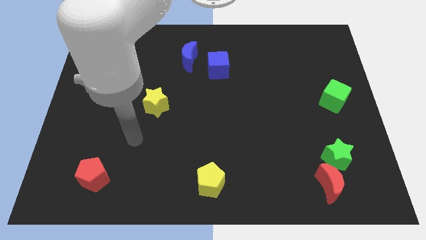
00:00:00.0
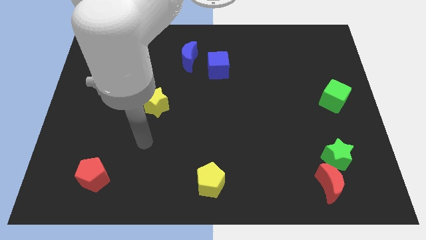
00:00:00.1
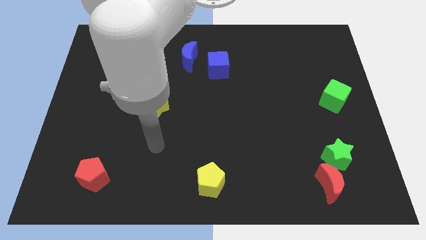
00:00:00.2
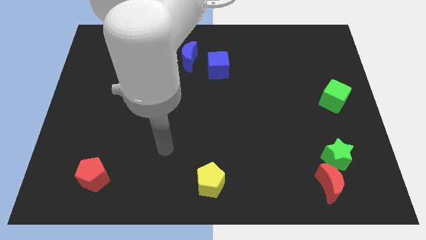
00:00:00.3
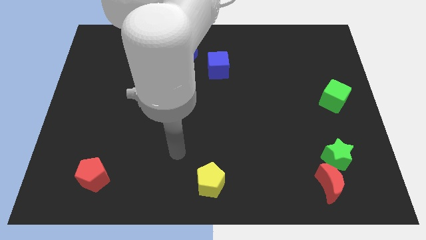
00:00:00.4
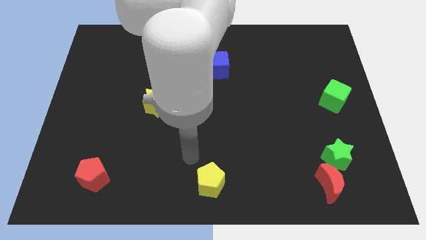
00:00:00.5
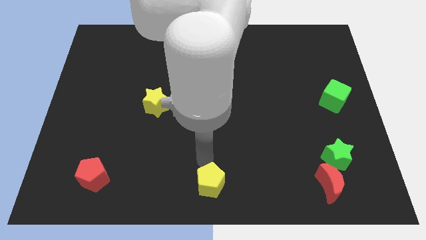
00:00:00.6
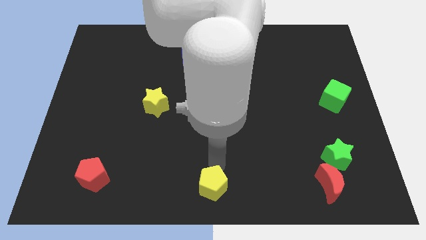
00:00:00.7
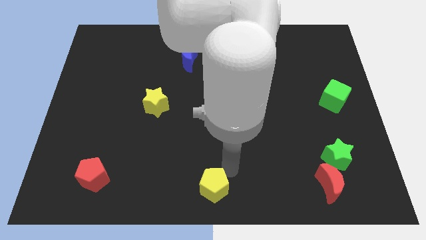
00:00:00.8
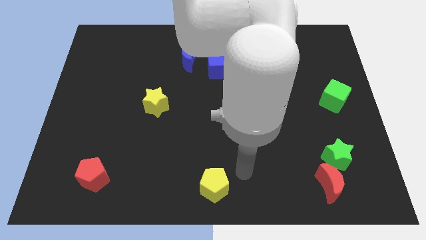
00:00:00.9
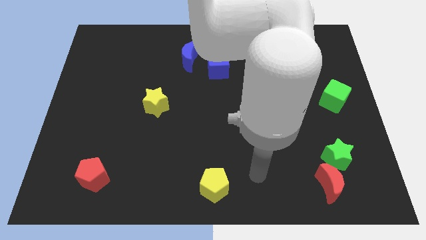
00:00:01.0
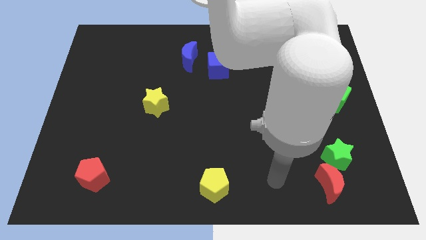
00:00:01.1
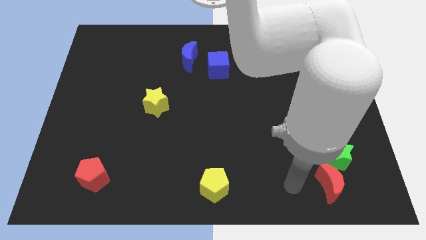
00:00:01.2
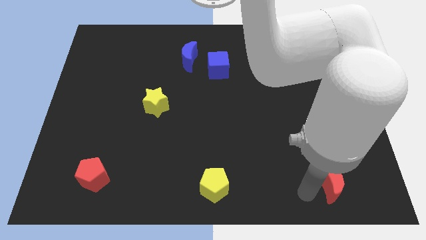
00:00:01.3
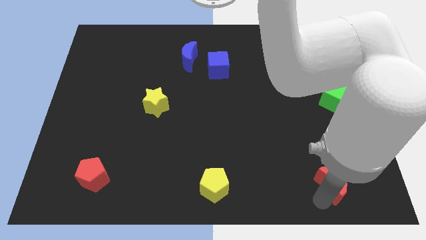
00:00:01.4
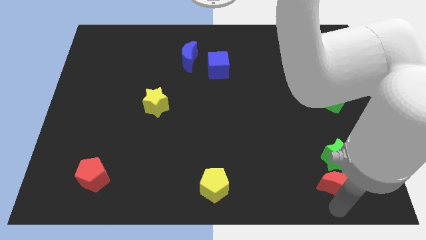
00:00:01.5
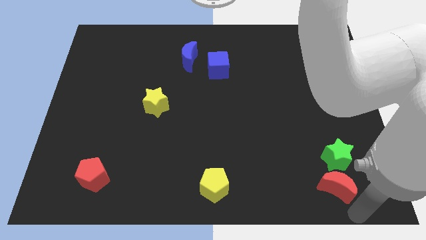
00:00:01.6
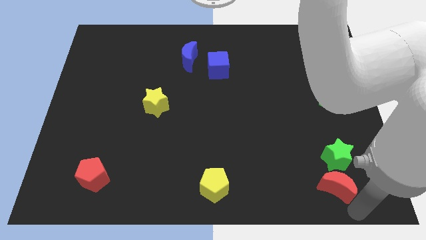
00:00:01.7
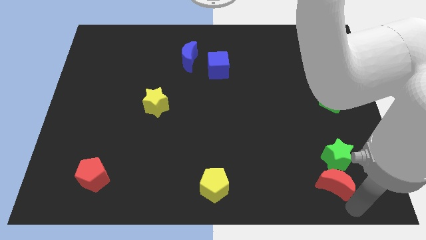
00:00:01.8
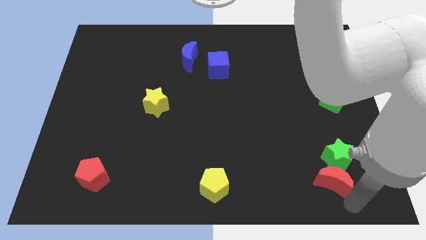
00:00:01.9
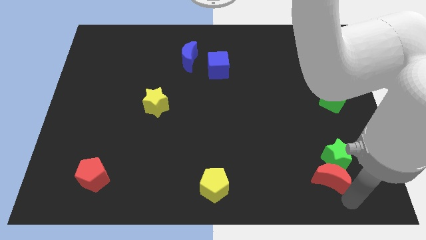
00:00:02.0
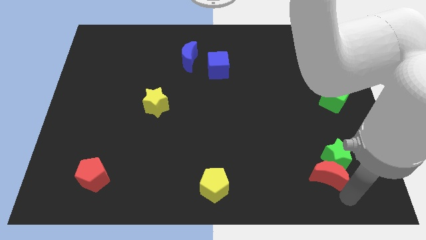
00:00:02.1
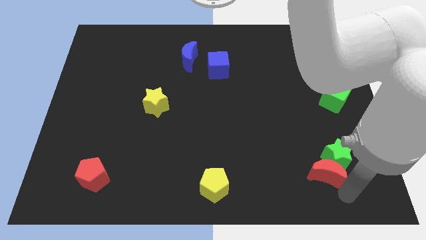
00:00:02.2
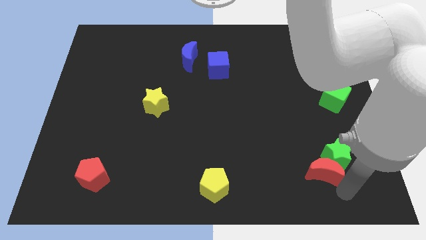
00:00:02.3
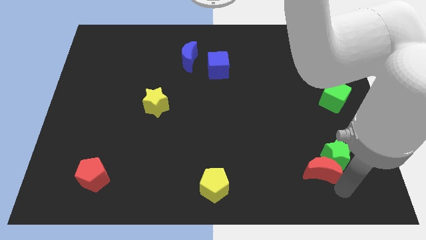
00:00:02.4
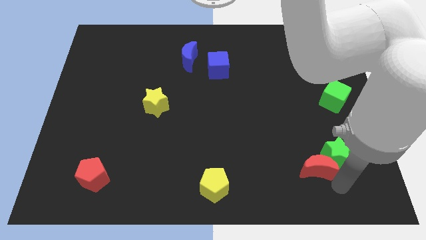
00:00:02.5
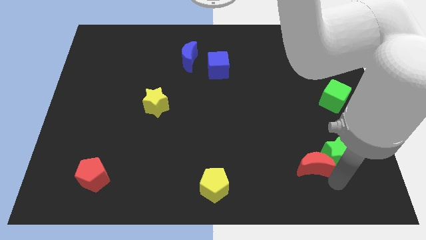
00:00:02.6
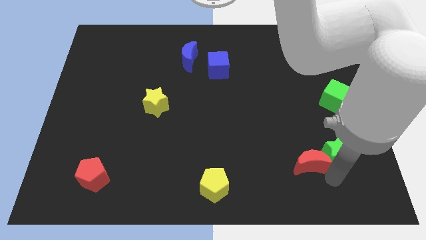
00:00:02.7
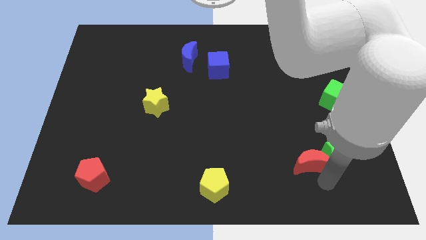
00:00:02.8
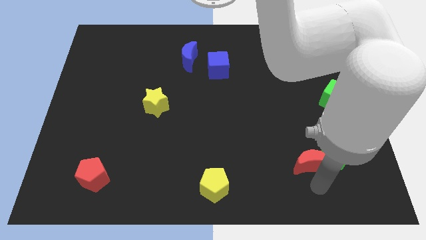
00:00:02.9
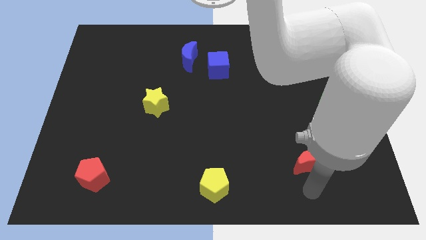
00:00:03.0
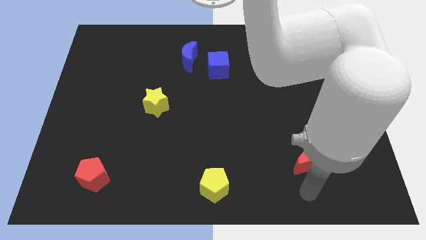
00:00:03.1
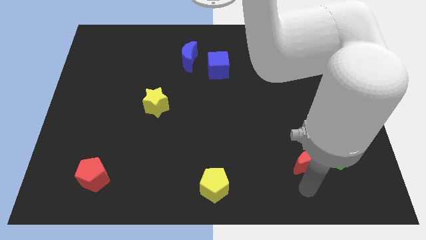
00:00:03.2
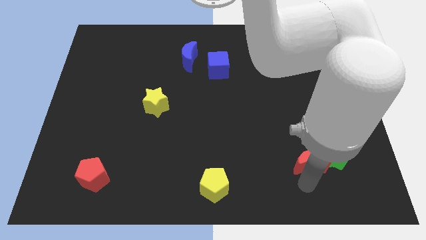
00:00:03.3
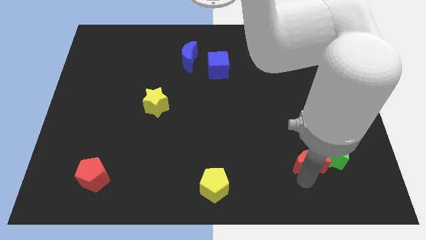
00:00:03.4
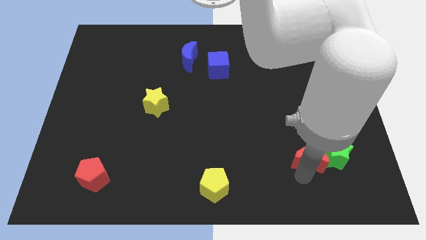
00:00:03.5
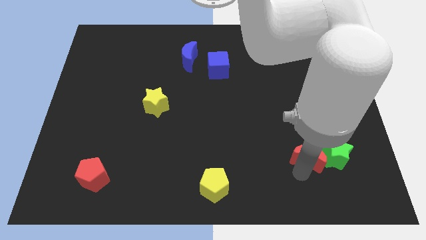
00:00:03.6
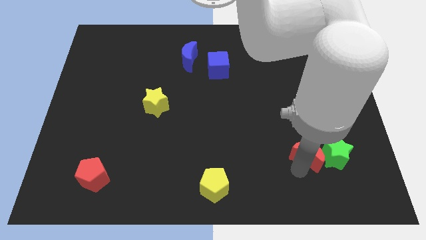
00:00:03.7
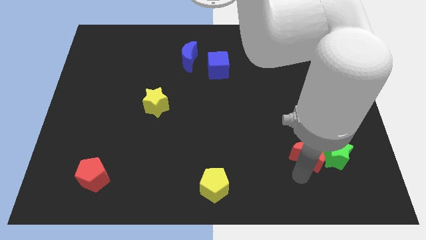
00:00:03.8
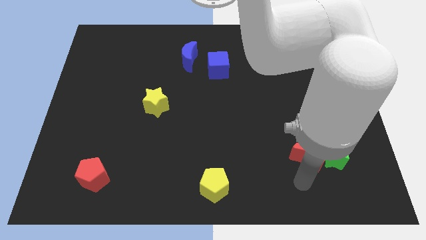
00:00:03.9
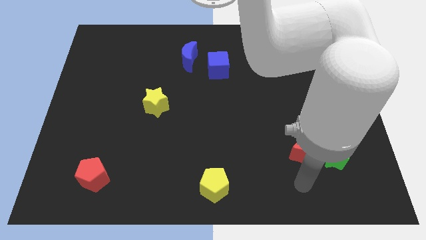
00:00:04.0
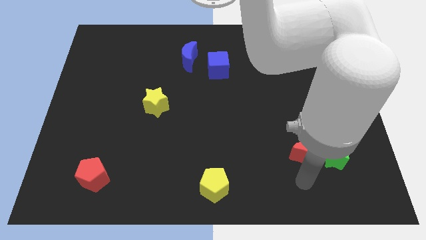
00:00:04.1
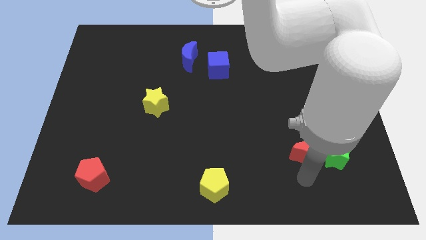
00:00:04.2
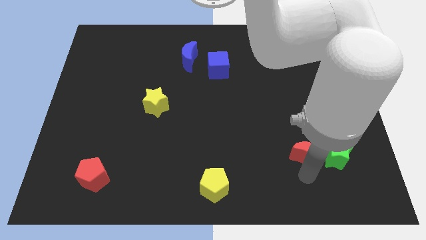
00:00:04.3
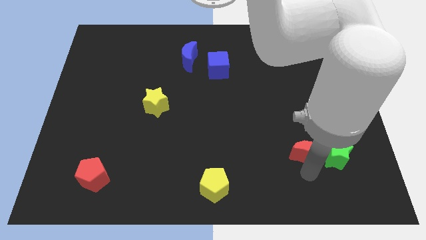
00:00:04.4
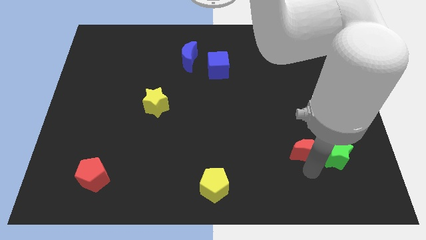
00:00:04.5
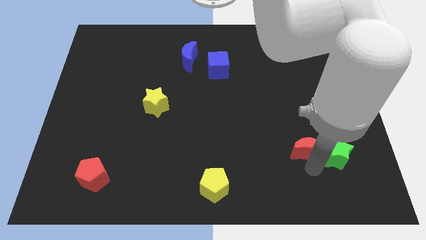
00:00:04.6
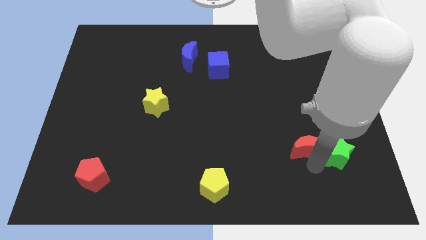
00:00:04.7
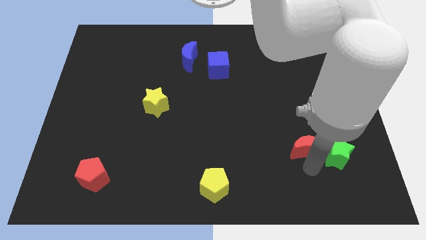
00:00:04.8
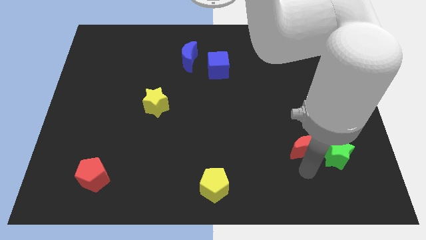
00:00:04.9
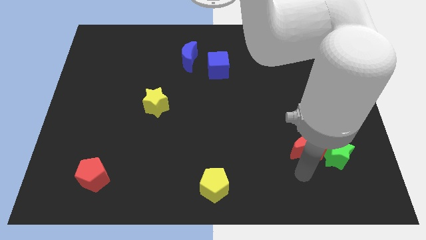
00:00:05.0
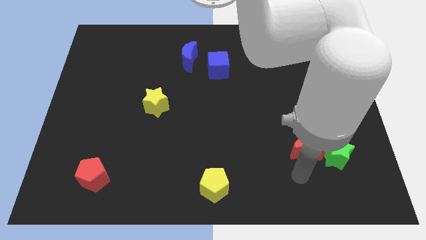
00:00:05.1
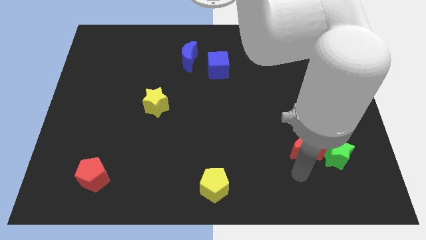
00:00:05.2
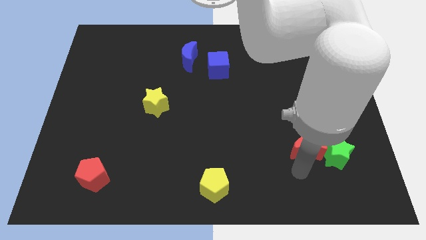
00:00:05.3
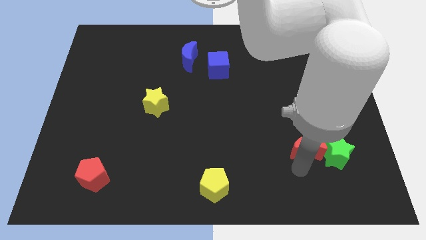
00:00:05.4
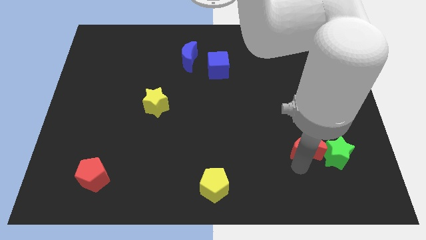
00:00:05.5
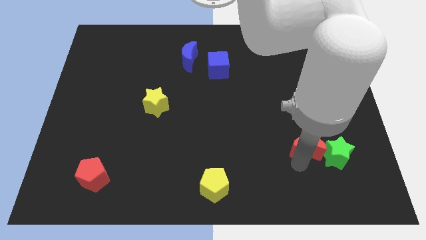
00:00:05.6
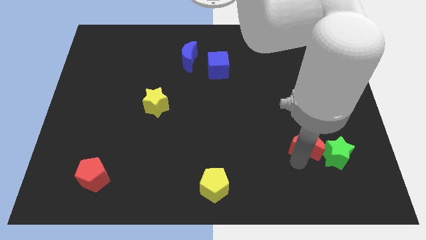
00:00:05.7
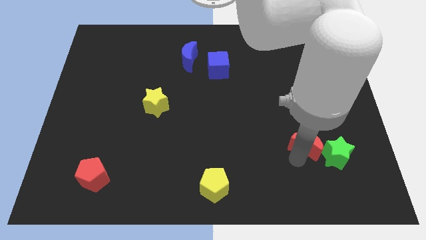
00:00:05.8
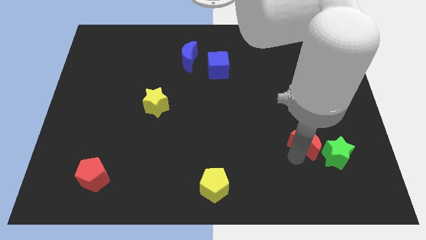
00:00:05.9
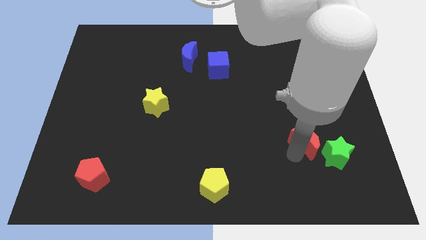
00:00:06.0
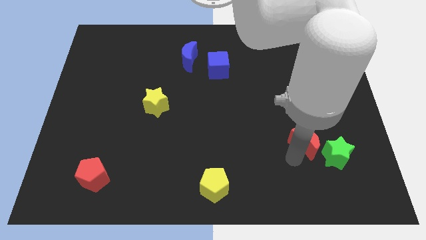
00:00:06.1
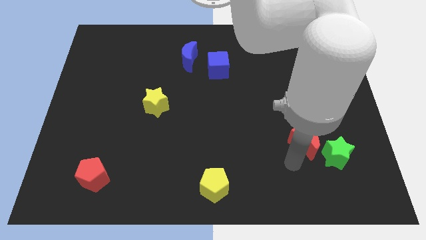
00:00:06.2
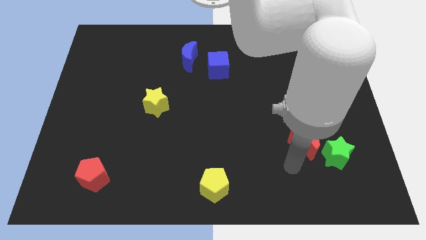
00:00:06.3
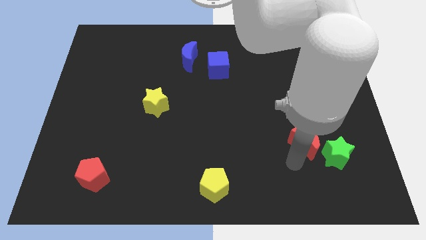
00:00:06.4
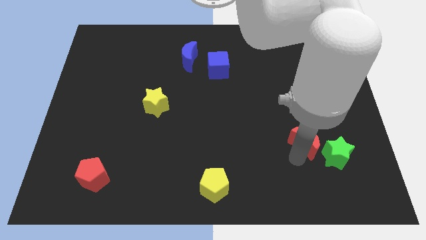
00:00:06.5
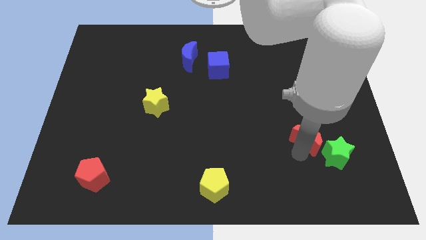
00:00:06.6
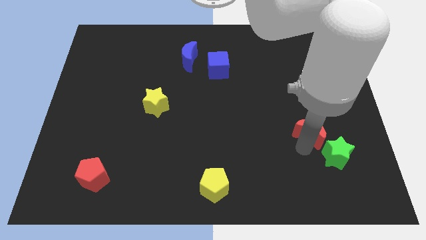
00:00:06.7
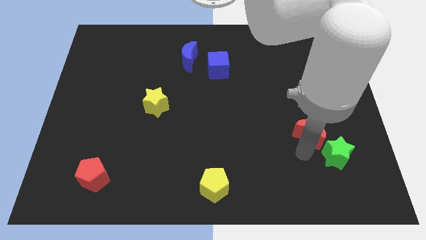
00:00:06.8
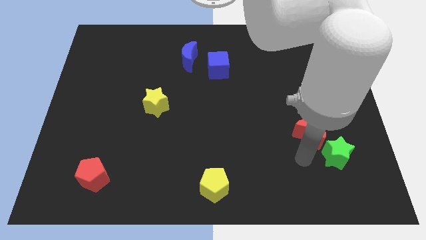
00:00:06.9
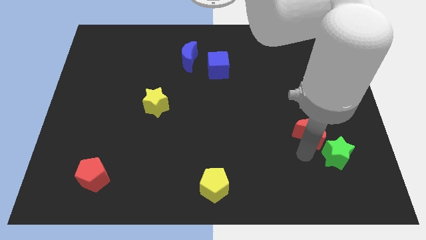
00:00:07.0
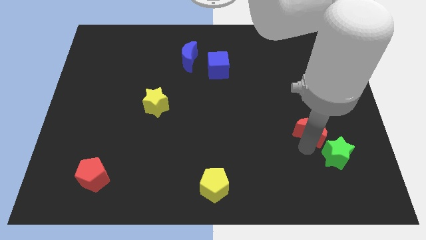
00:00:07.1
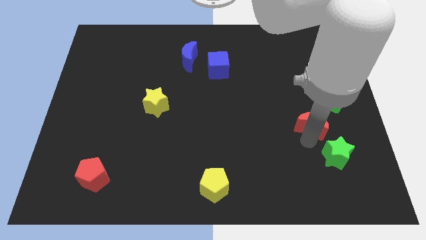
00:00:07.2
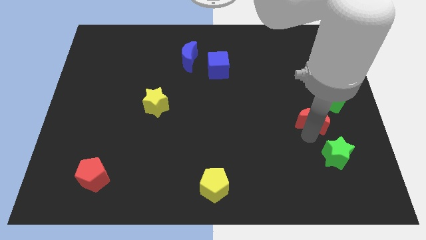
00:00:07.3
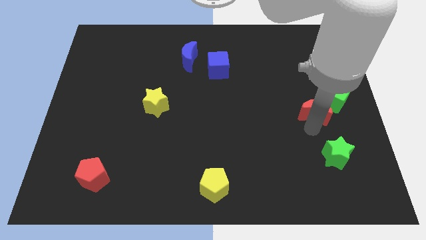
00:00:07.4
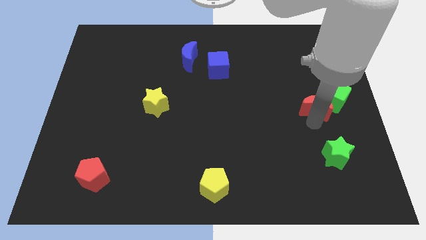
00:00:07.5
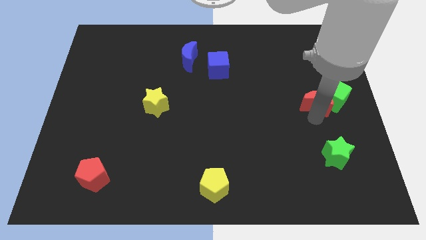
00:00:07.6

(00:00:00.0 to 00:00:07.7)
push the red moon up

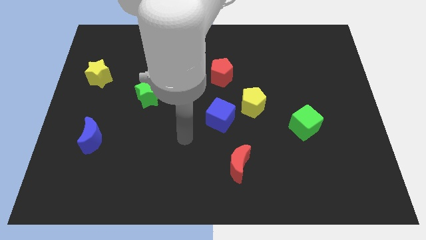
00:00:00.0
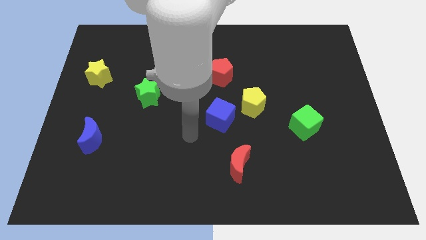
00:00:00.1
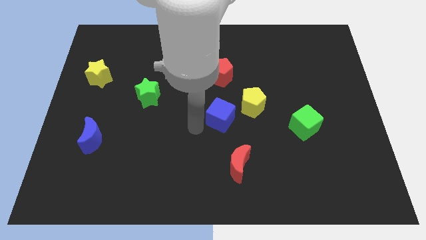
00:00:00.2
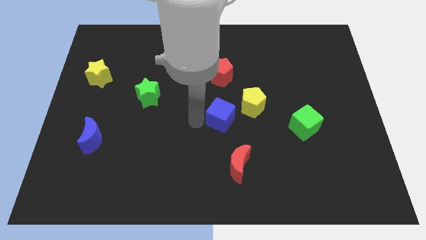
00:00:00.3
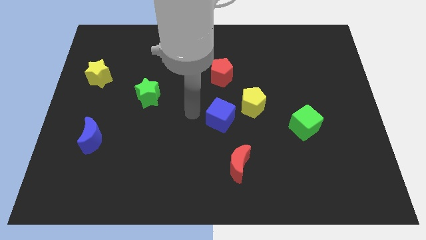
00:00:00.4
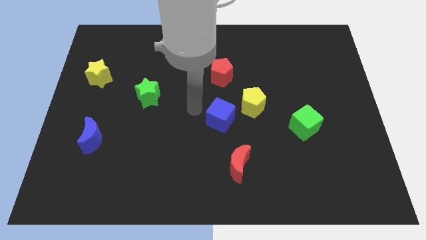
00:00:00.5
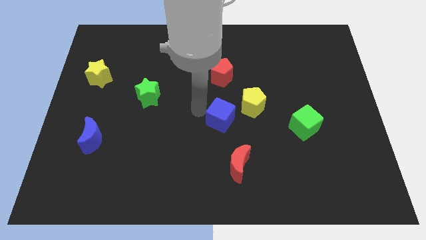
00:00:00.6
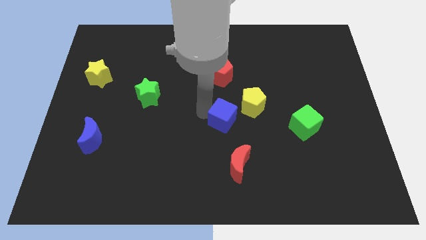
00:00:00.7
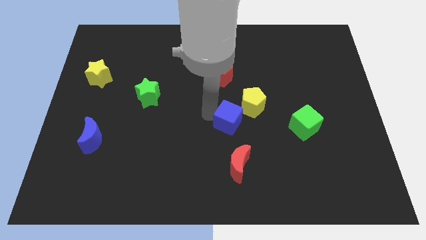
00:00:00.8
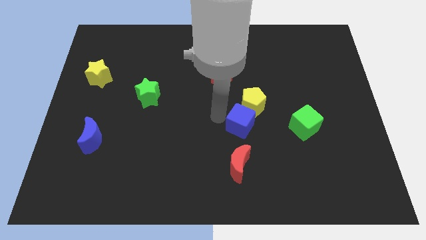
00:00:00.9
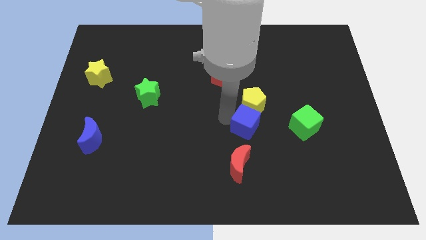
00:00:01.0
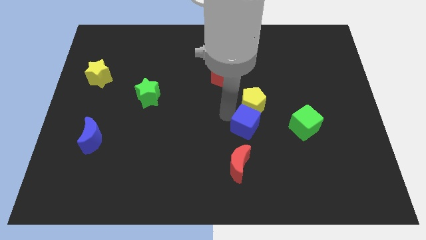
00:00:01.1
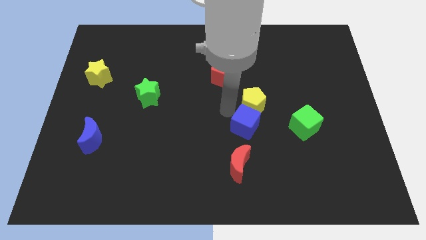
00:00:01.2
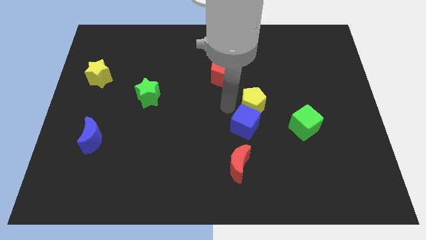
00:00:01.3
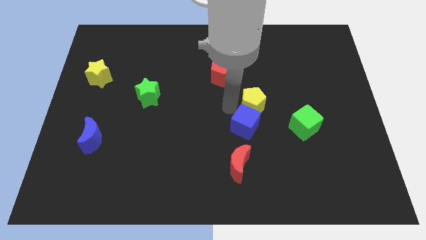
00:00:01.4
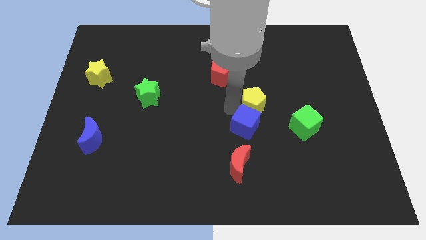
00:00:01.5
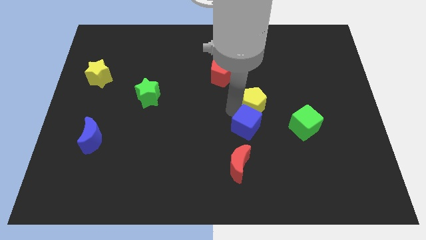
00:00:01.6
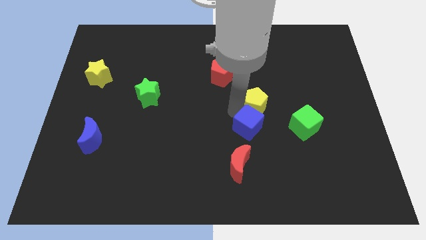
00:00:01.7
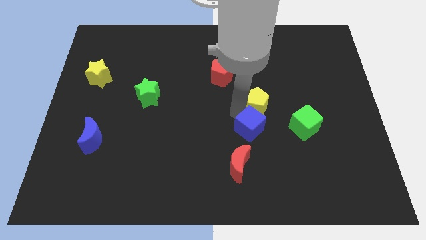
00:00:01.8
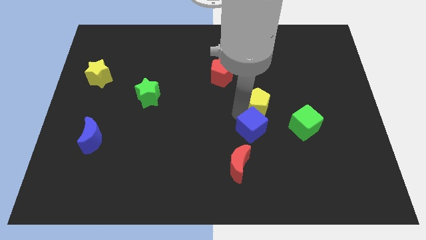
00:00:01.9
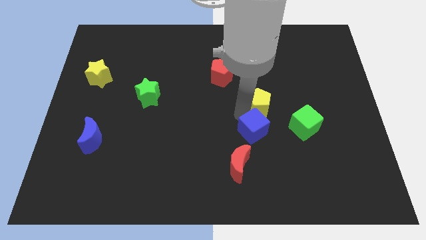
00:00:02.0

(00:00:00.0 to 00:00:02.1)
slightly move the blue cube down and to the right
